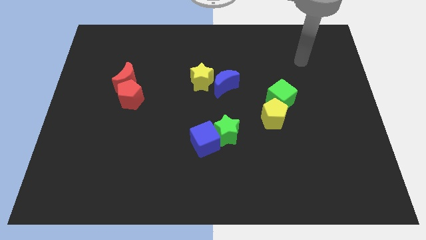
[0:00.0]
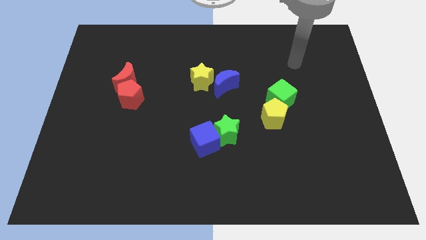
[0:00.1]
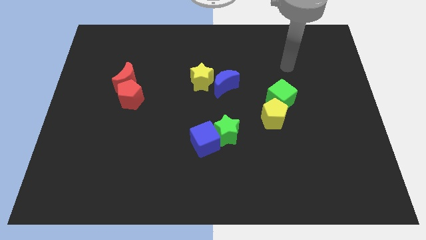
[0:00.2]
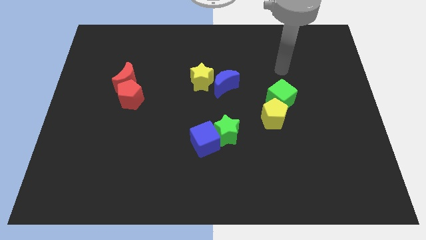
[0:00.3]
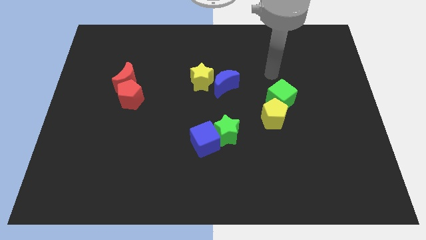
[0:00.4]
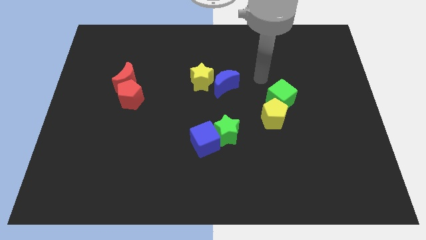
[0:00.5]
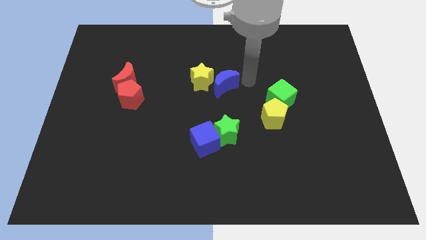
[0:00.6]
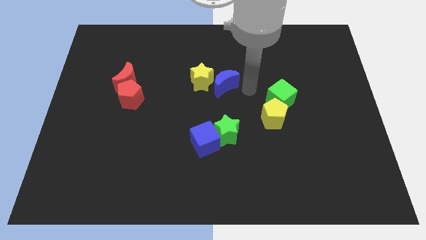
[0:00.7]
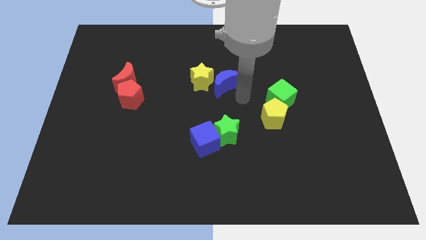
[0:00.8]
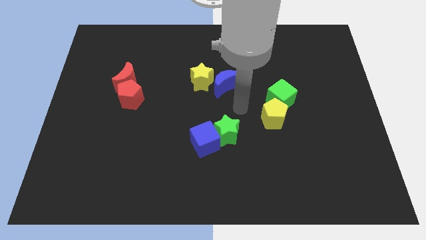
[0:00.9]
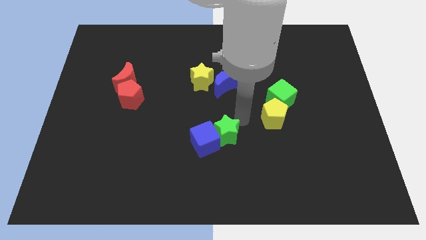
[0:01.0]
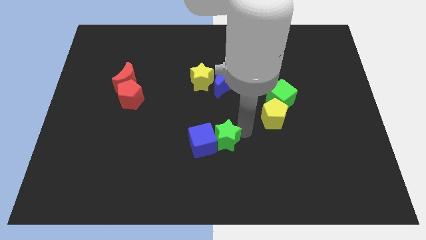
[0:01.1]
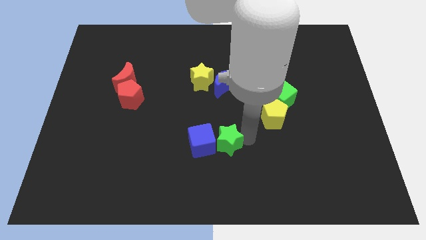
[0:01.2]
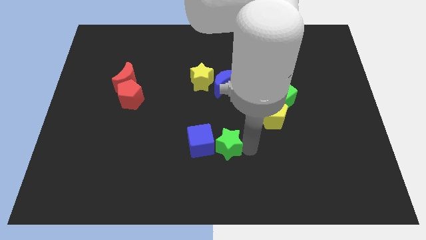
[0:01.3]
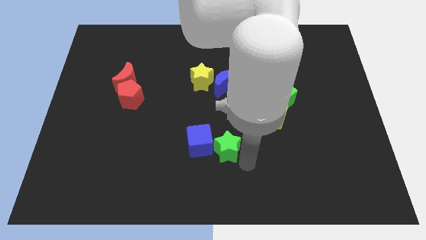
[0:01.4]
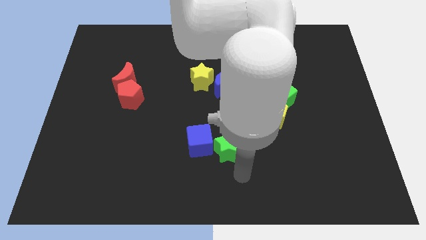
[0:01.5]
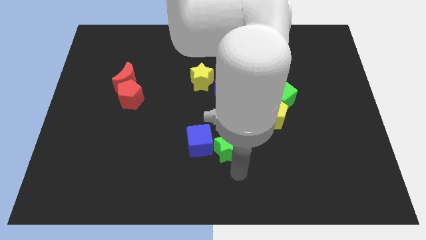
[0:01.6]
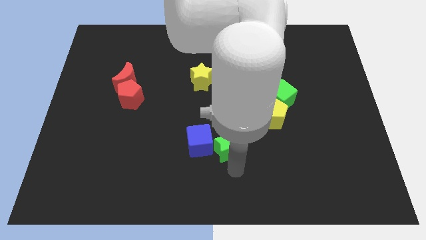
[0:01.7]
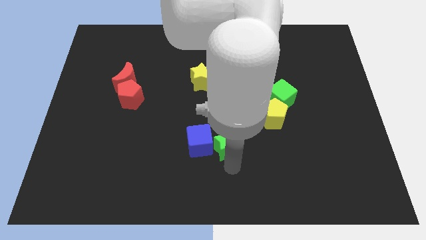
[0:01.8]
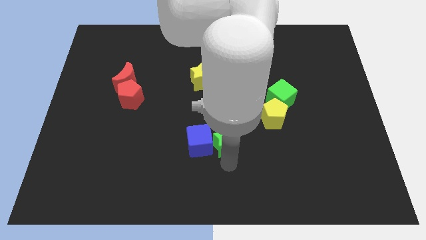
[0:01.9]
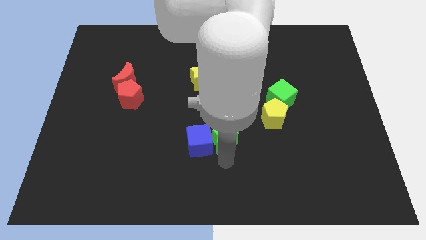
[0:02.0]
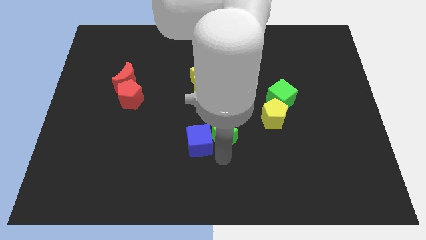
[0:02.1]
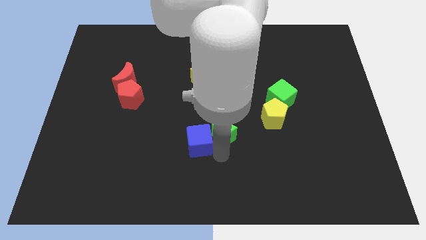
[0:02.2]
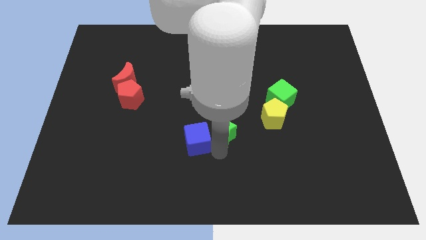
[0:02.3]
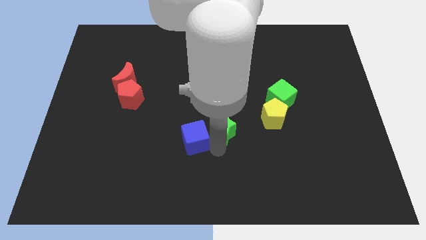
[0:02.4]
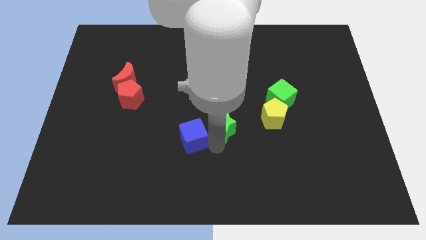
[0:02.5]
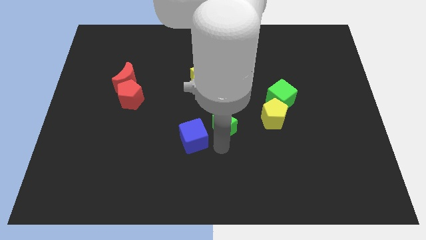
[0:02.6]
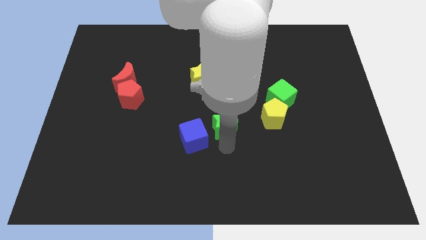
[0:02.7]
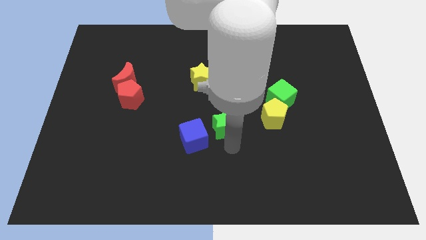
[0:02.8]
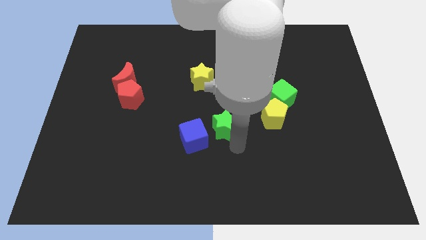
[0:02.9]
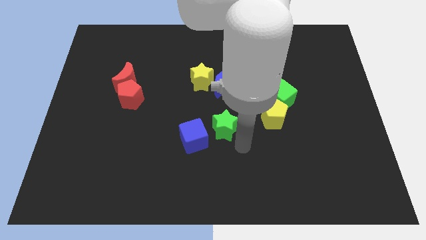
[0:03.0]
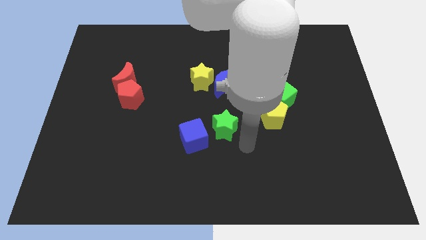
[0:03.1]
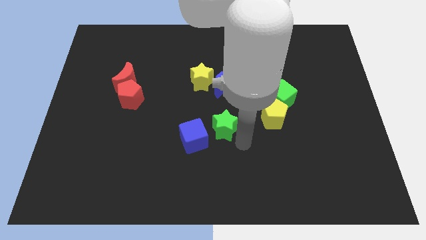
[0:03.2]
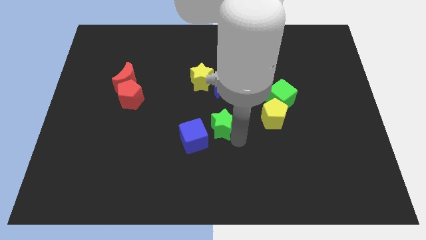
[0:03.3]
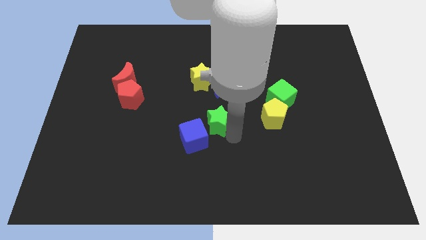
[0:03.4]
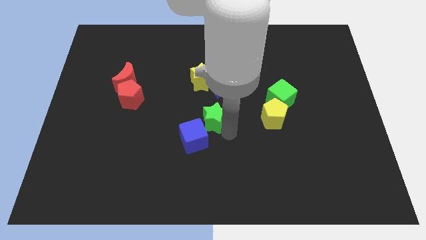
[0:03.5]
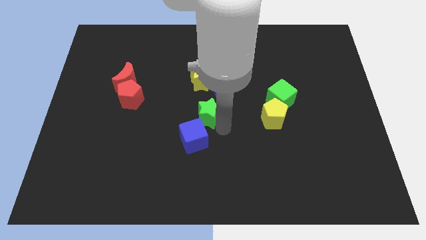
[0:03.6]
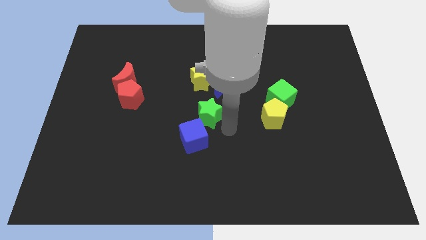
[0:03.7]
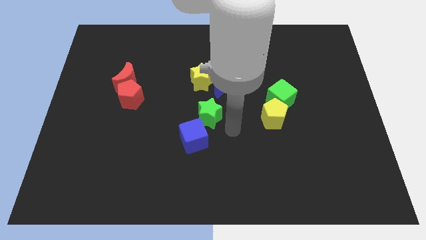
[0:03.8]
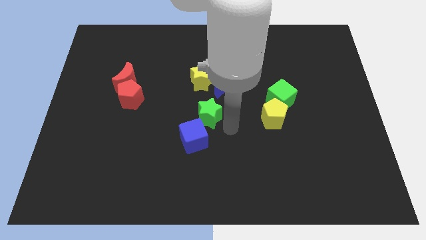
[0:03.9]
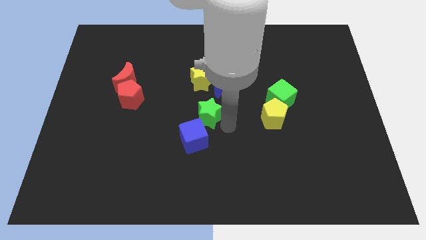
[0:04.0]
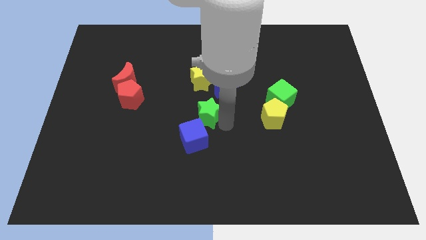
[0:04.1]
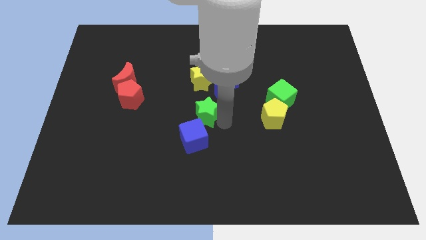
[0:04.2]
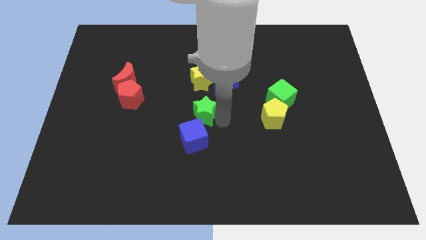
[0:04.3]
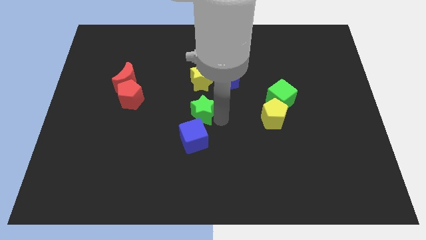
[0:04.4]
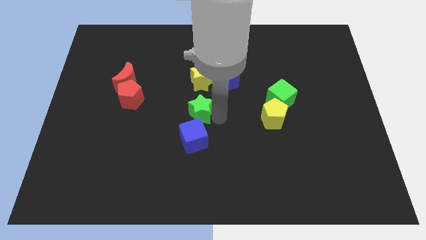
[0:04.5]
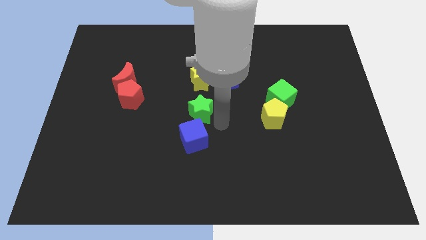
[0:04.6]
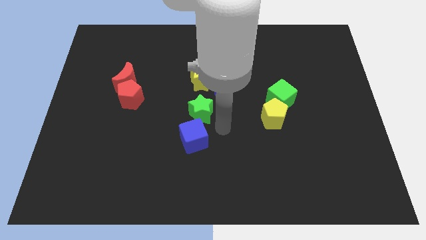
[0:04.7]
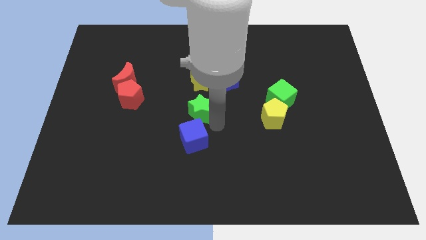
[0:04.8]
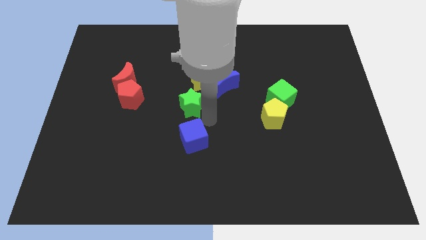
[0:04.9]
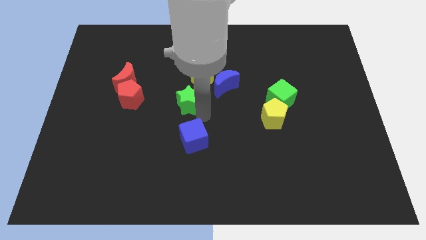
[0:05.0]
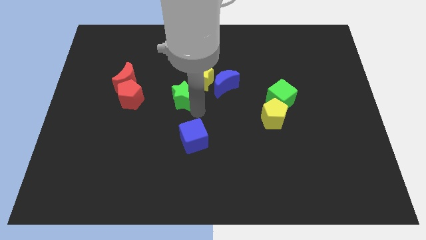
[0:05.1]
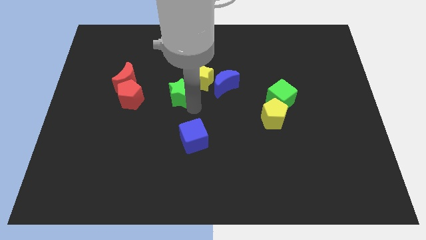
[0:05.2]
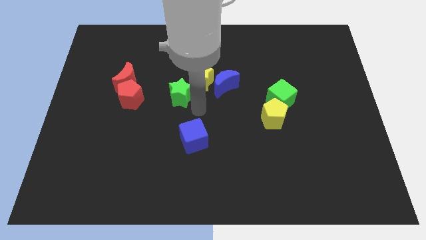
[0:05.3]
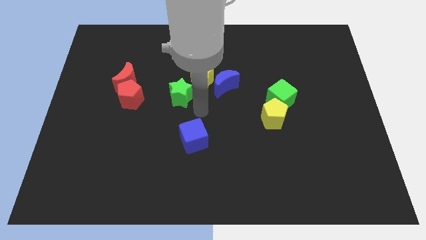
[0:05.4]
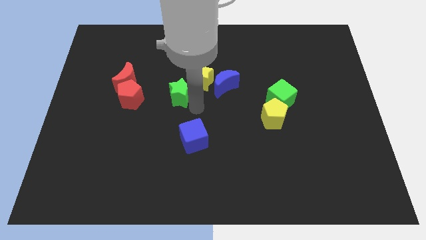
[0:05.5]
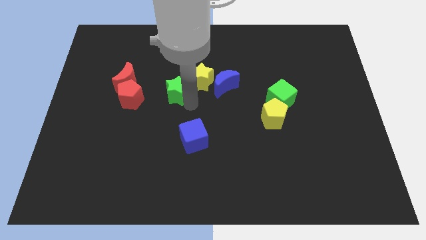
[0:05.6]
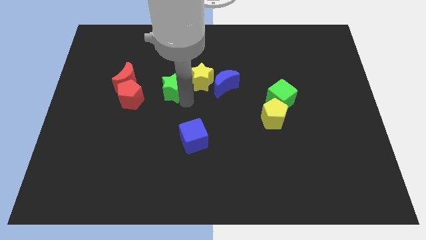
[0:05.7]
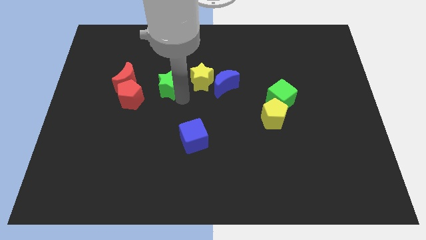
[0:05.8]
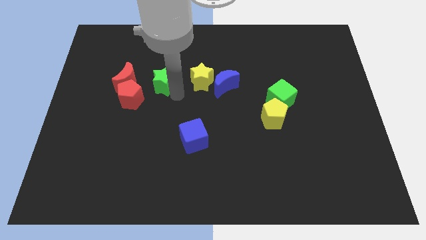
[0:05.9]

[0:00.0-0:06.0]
move the green star upwards and then to the left

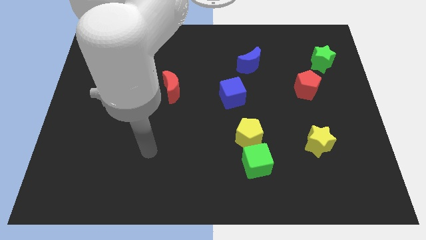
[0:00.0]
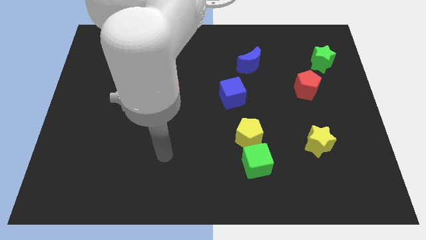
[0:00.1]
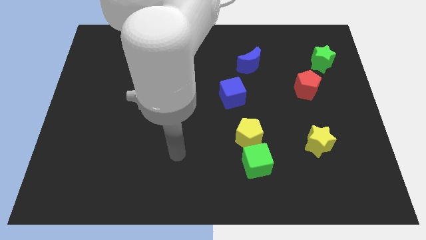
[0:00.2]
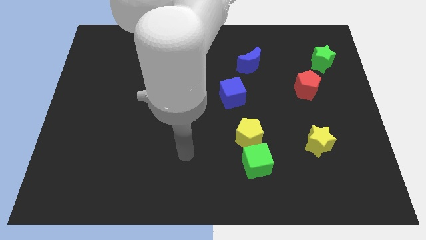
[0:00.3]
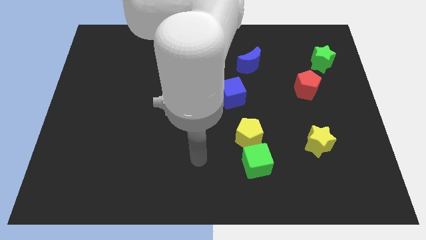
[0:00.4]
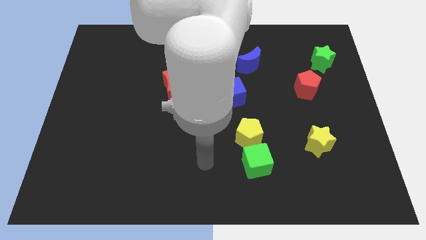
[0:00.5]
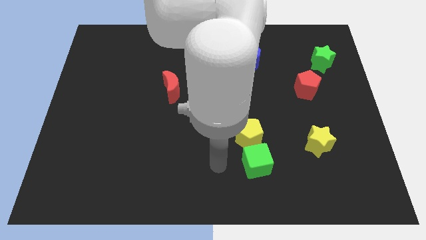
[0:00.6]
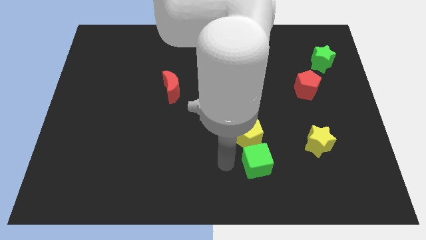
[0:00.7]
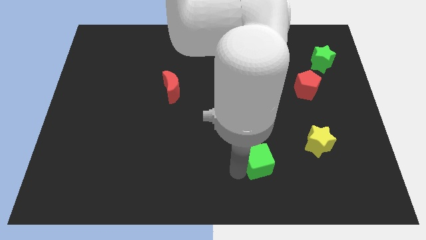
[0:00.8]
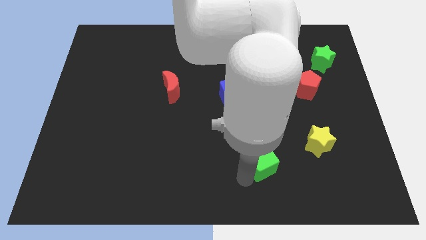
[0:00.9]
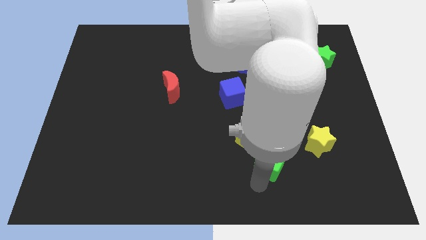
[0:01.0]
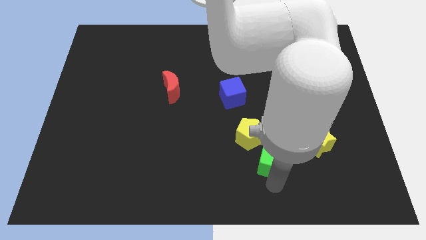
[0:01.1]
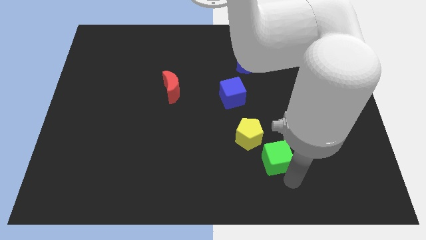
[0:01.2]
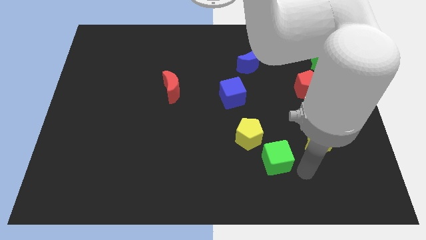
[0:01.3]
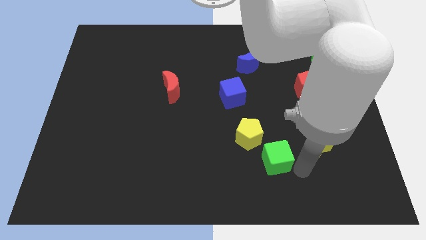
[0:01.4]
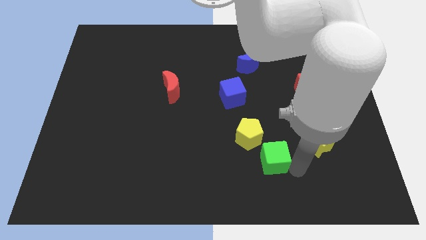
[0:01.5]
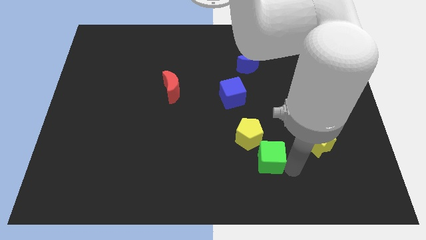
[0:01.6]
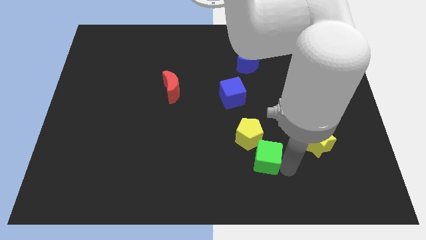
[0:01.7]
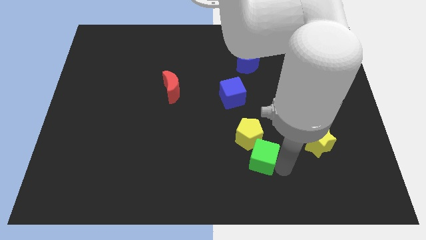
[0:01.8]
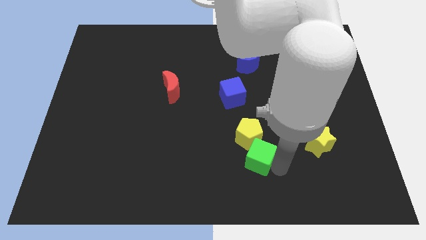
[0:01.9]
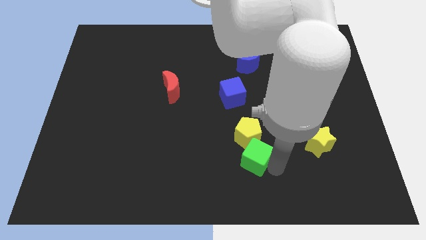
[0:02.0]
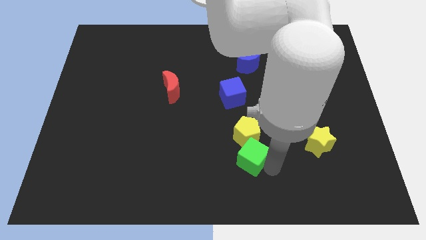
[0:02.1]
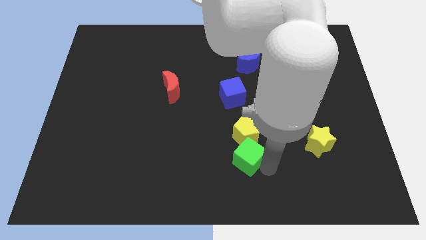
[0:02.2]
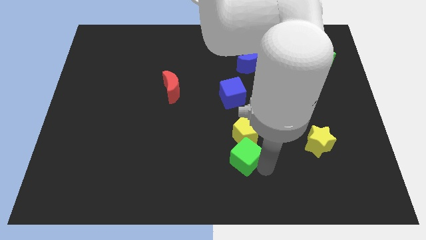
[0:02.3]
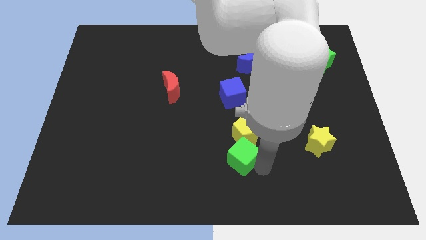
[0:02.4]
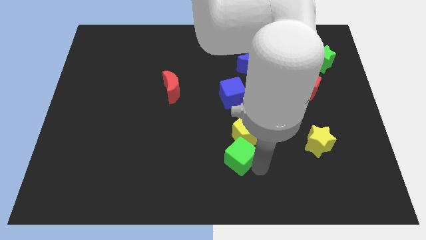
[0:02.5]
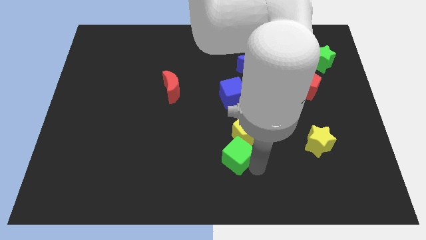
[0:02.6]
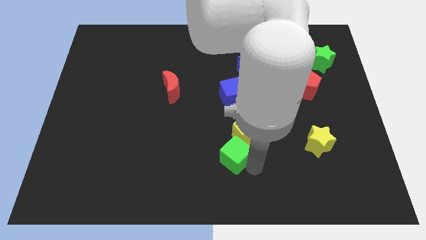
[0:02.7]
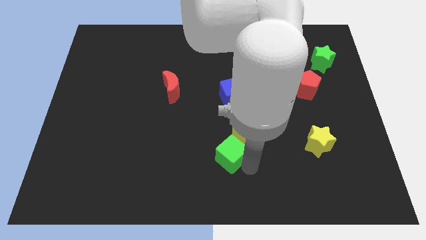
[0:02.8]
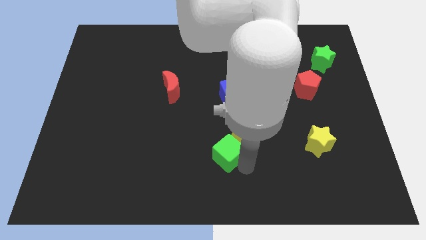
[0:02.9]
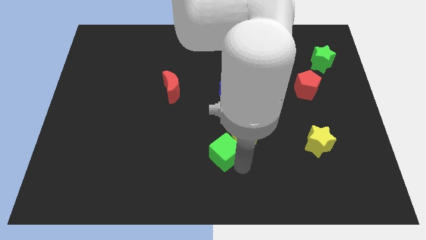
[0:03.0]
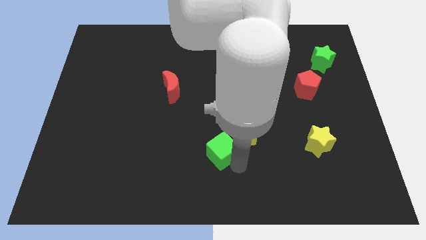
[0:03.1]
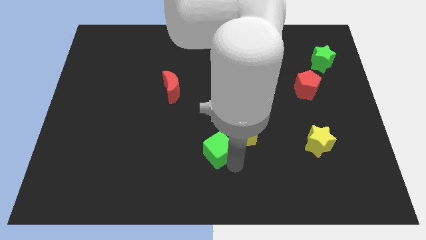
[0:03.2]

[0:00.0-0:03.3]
slide the green cube a bit upwards and then to the left
